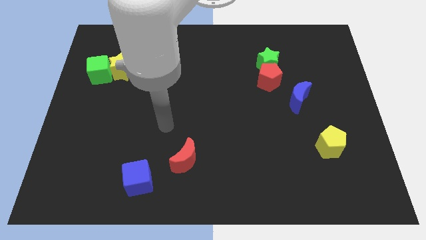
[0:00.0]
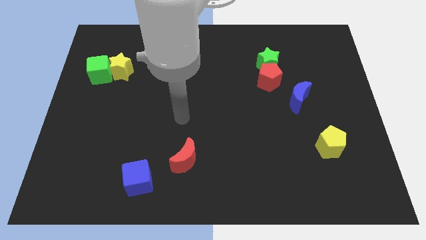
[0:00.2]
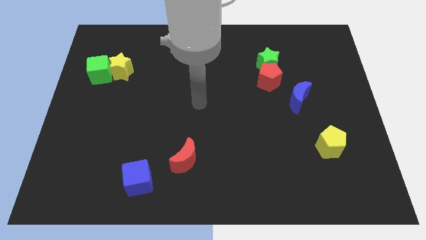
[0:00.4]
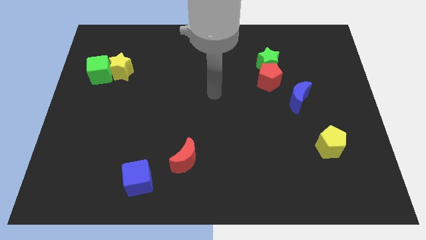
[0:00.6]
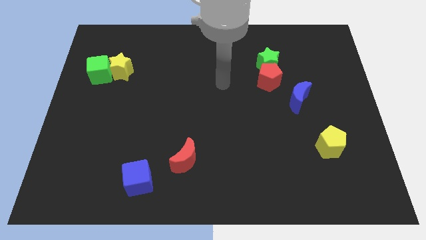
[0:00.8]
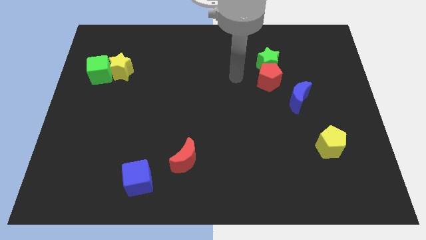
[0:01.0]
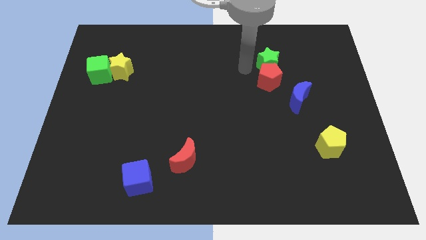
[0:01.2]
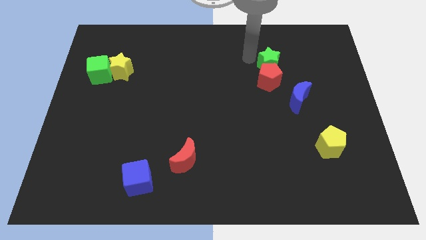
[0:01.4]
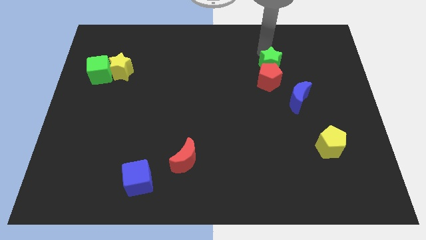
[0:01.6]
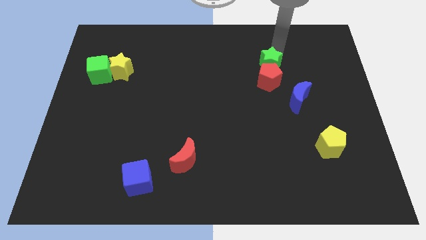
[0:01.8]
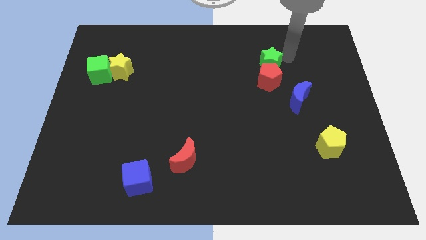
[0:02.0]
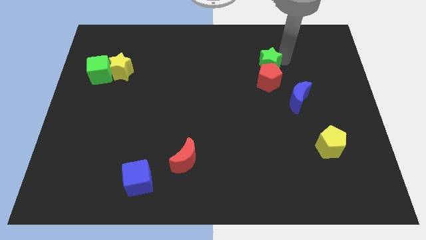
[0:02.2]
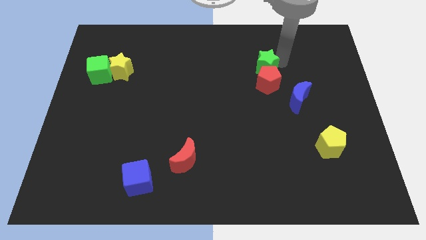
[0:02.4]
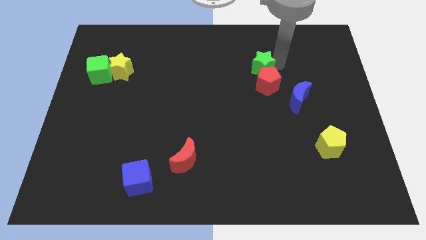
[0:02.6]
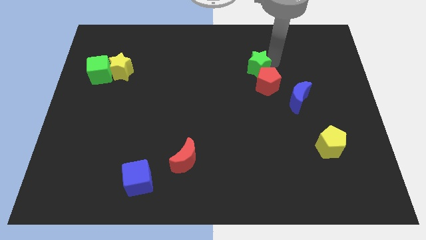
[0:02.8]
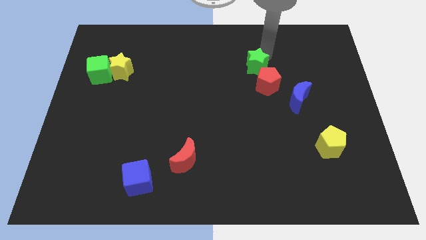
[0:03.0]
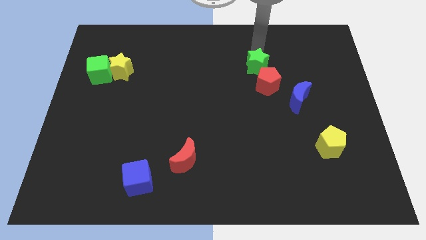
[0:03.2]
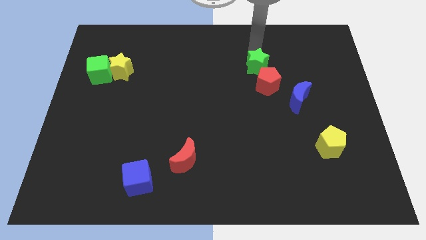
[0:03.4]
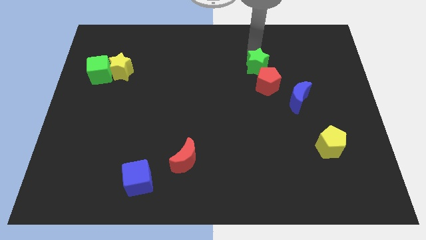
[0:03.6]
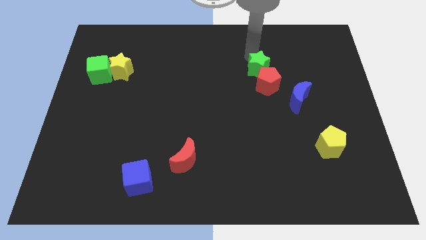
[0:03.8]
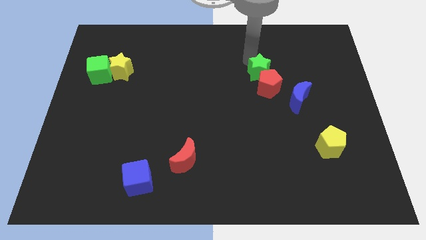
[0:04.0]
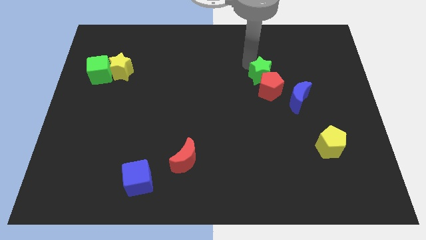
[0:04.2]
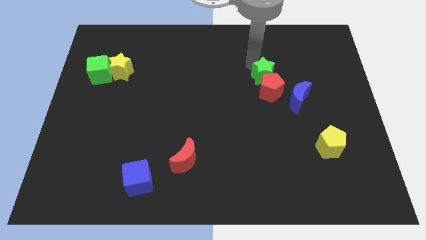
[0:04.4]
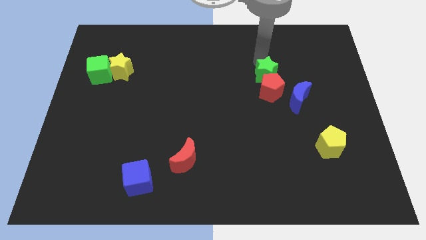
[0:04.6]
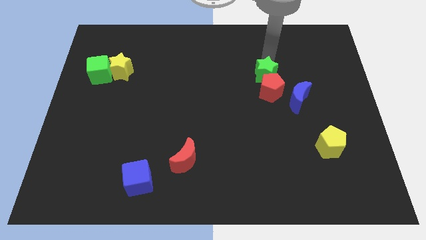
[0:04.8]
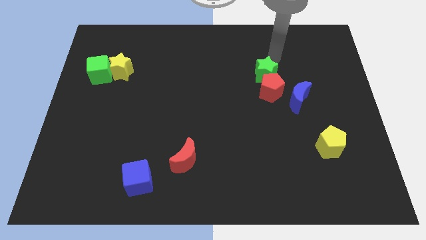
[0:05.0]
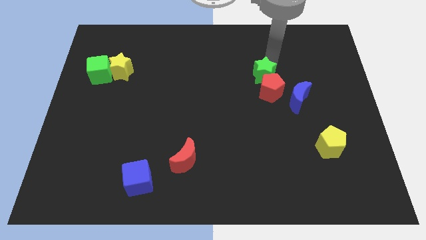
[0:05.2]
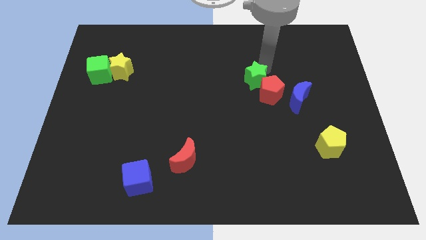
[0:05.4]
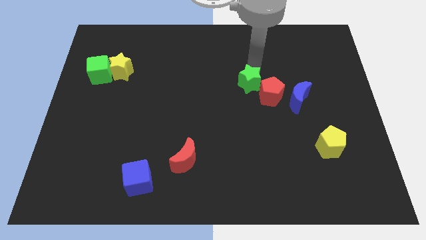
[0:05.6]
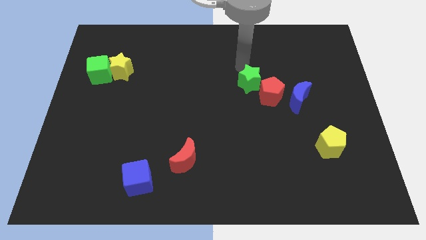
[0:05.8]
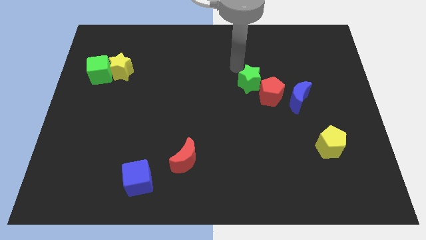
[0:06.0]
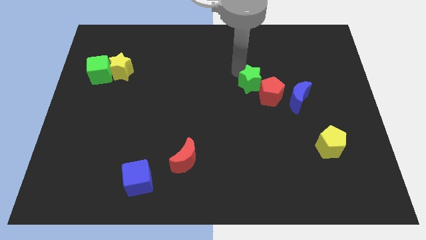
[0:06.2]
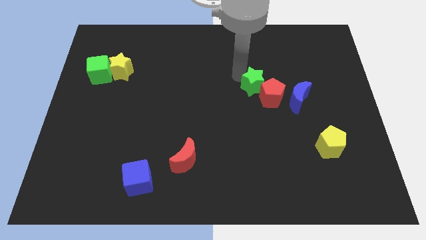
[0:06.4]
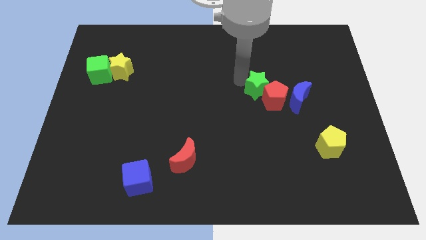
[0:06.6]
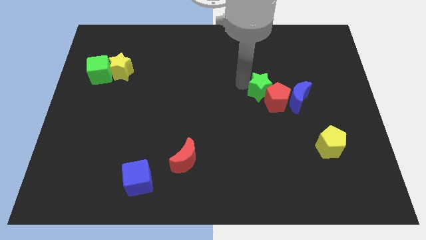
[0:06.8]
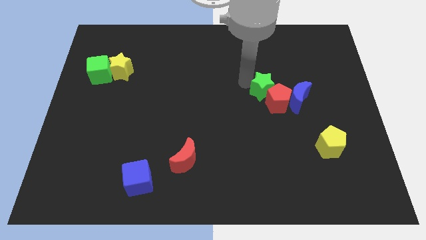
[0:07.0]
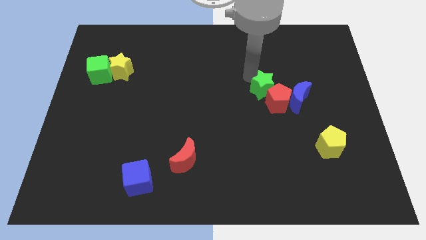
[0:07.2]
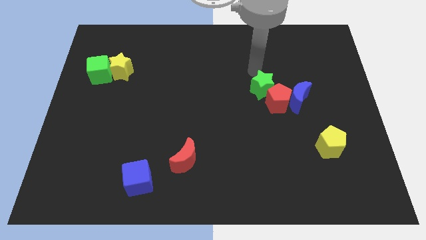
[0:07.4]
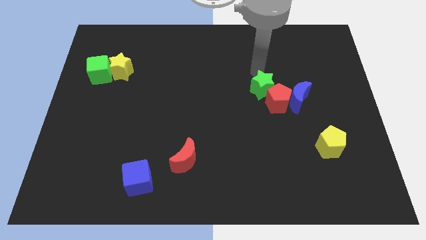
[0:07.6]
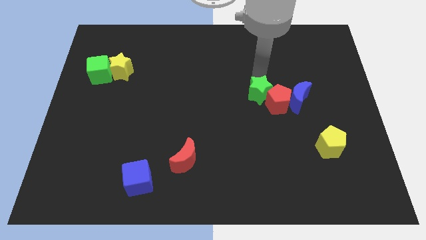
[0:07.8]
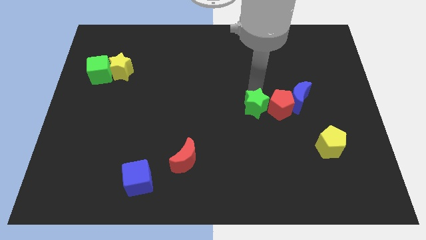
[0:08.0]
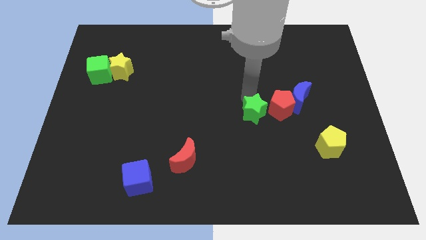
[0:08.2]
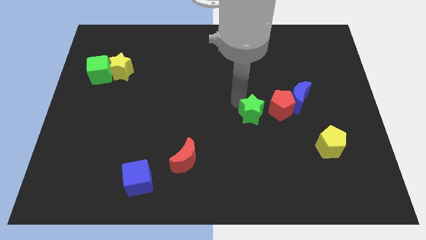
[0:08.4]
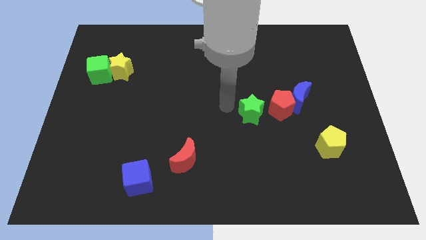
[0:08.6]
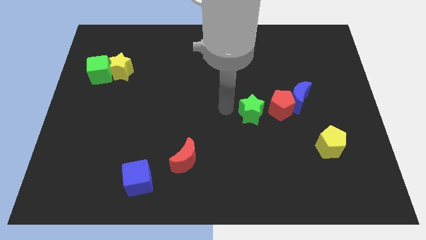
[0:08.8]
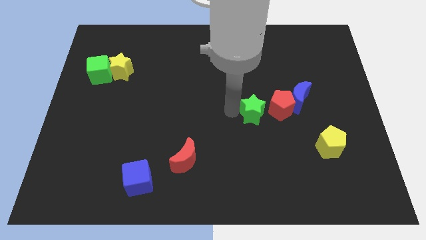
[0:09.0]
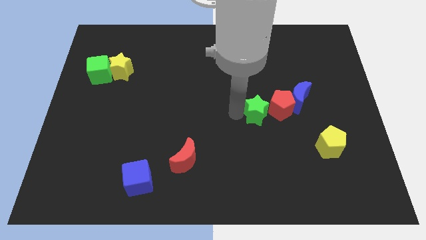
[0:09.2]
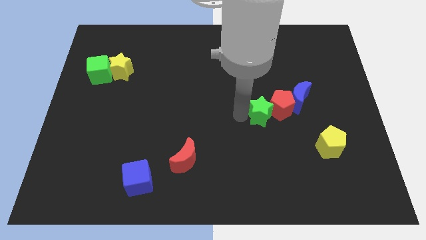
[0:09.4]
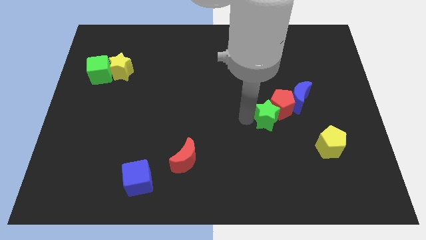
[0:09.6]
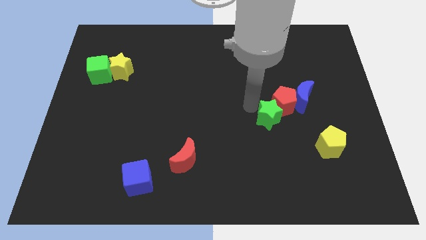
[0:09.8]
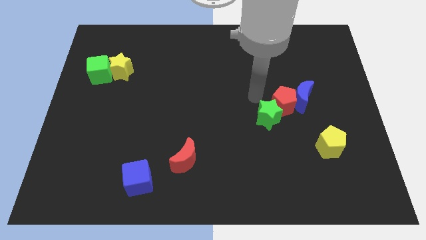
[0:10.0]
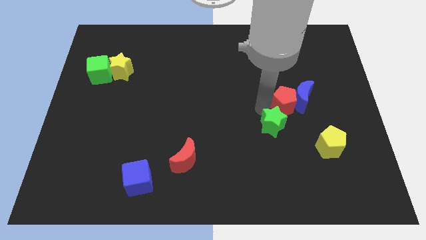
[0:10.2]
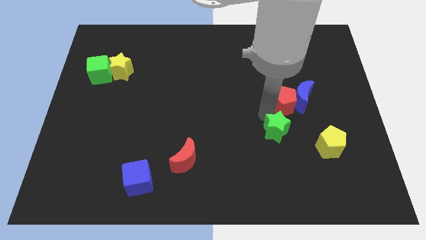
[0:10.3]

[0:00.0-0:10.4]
slide the green star just left of the yellow pentagon

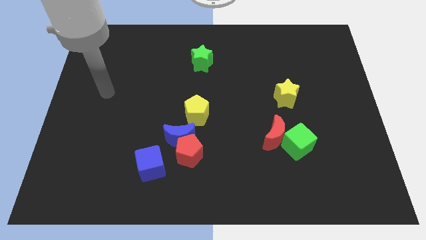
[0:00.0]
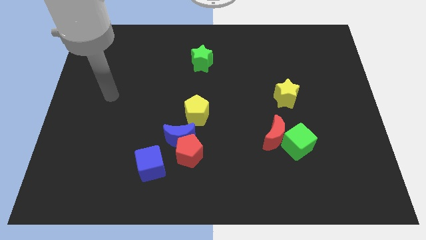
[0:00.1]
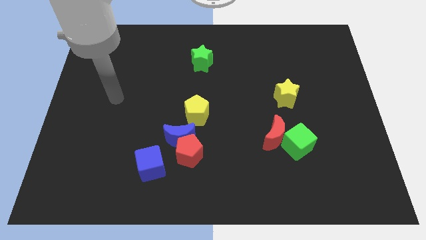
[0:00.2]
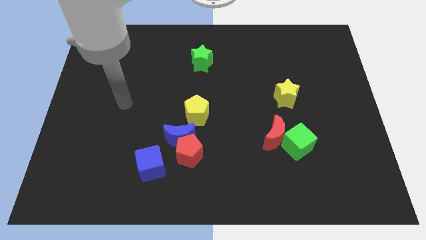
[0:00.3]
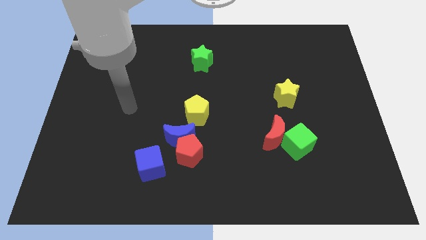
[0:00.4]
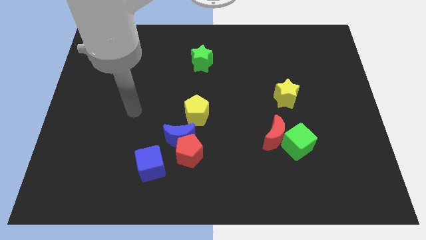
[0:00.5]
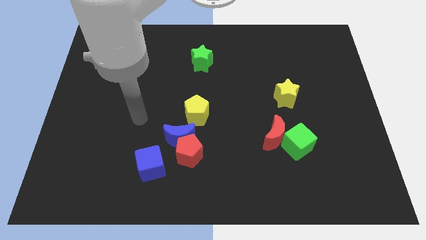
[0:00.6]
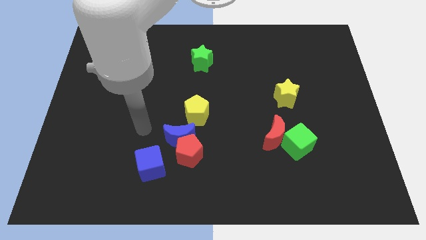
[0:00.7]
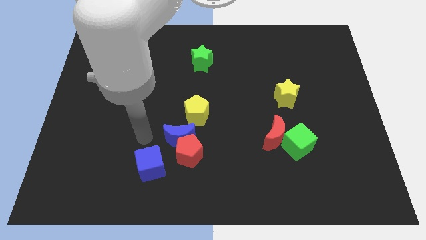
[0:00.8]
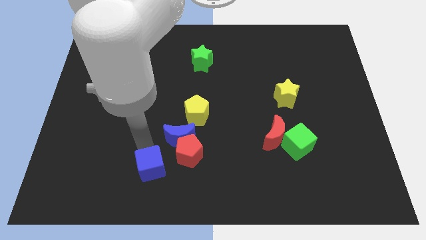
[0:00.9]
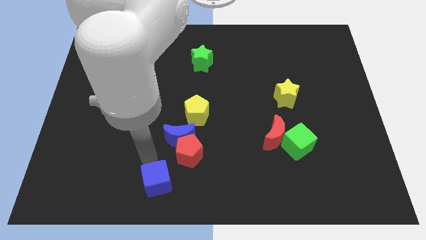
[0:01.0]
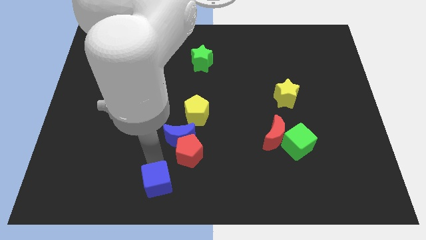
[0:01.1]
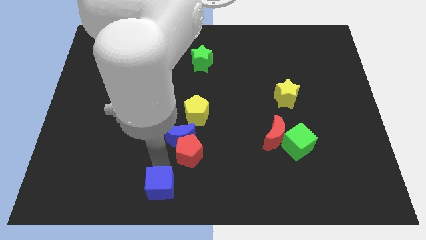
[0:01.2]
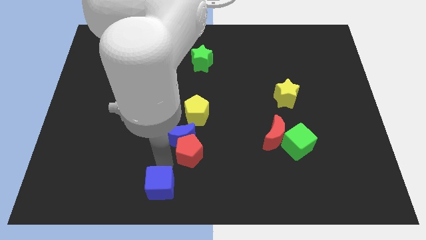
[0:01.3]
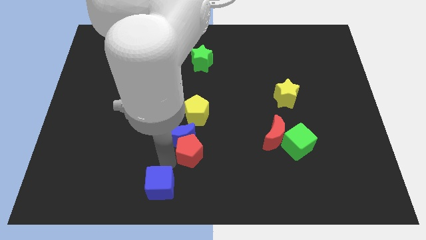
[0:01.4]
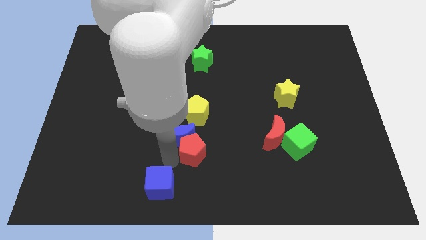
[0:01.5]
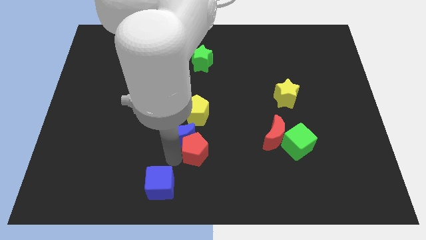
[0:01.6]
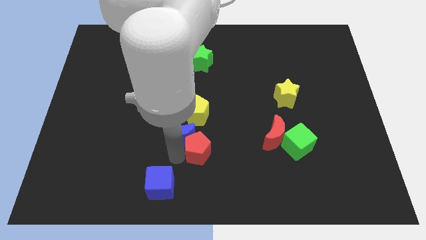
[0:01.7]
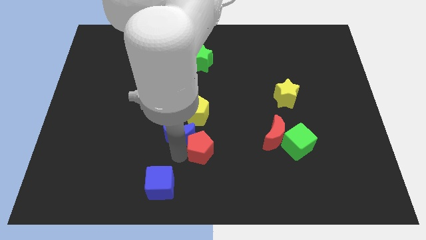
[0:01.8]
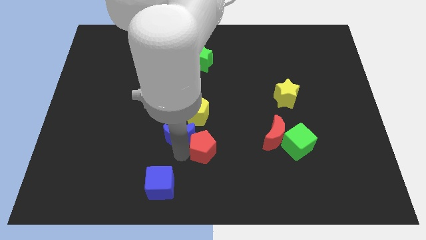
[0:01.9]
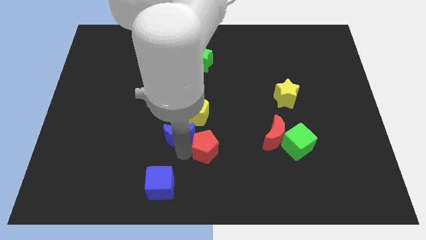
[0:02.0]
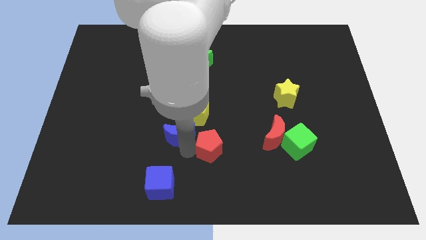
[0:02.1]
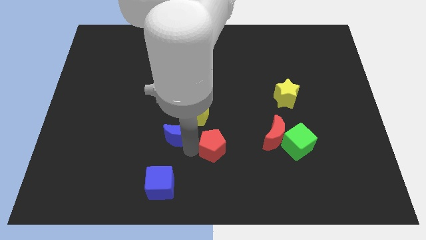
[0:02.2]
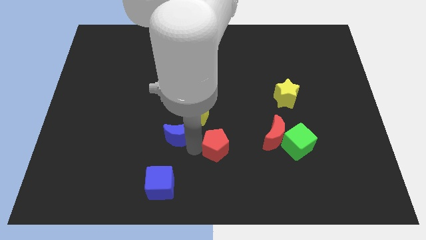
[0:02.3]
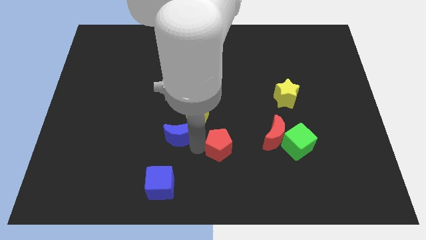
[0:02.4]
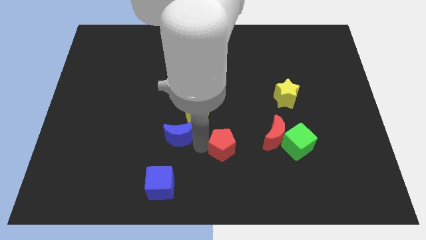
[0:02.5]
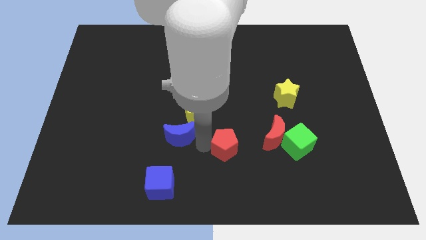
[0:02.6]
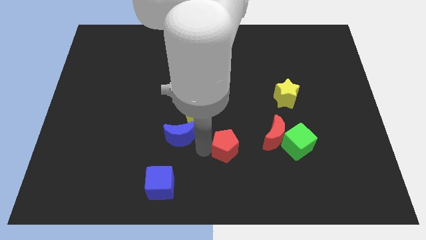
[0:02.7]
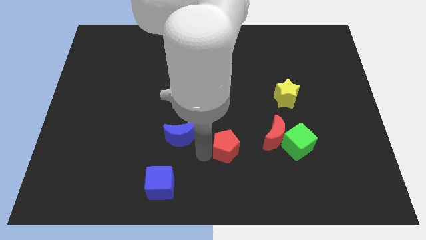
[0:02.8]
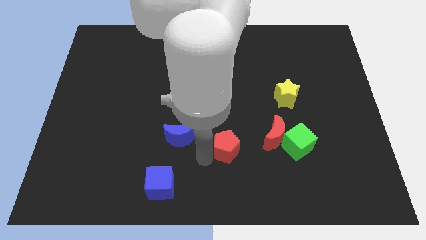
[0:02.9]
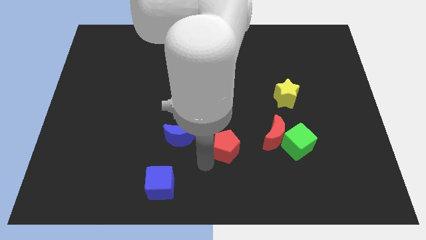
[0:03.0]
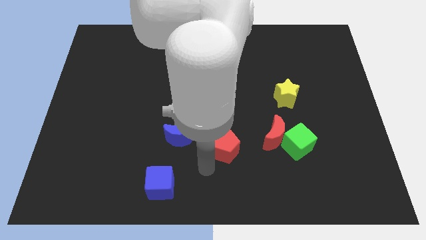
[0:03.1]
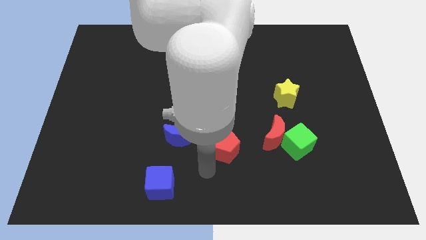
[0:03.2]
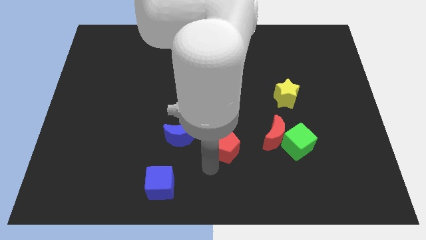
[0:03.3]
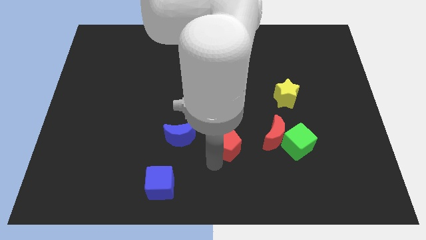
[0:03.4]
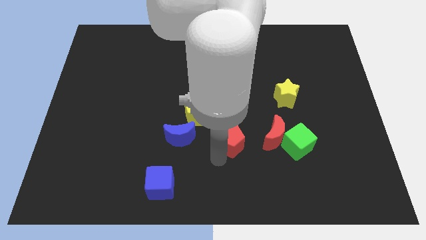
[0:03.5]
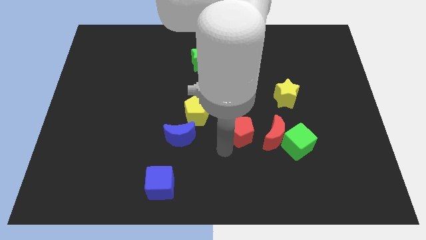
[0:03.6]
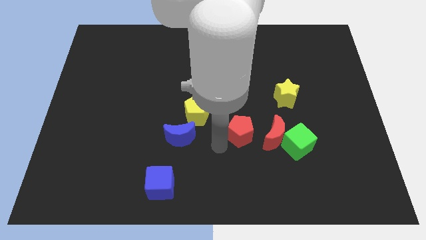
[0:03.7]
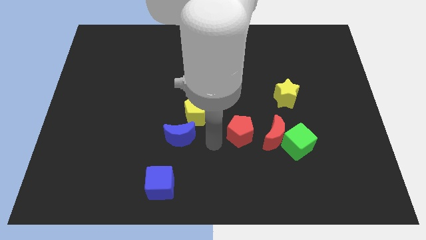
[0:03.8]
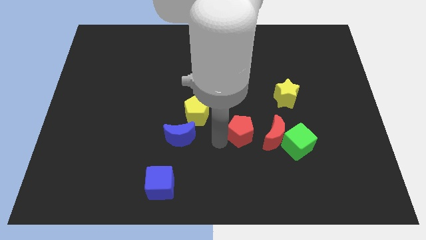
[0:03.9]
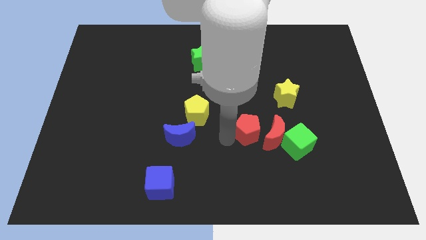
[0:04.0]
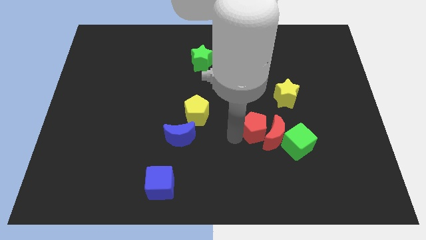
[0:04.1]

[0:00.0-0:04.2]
push the red pentagon diagonally up and to the left of the green cube
